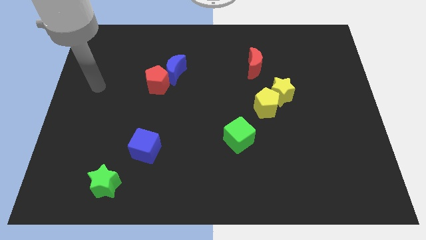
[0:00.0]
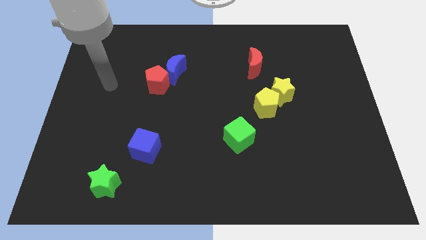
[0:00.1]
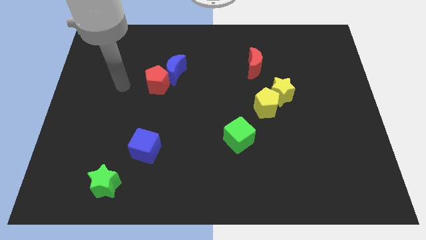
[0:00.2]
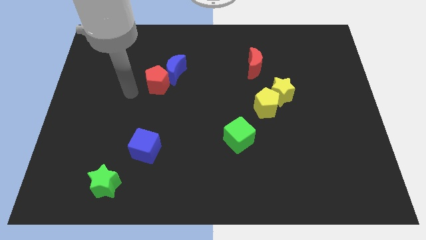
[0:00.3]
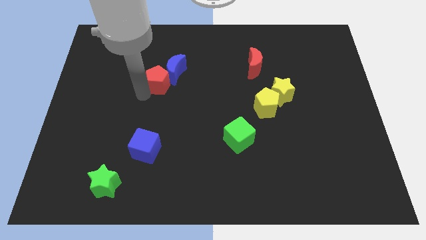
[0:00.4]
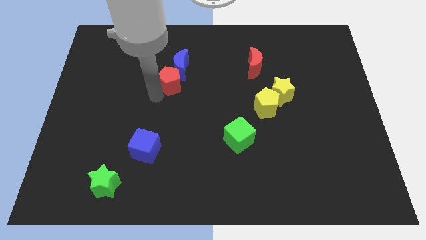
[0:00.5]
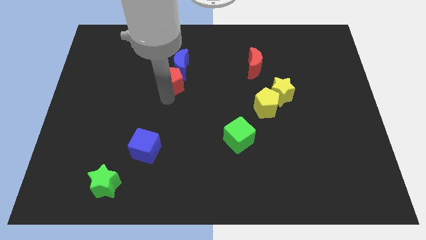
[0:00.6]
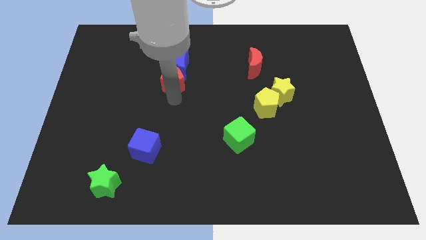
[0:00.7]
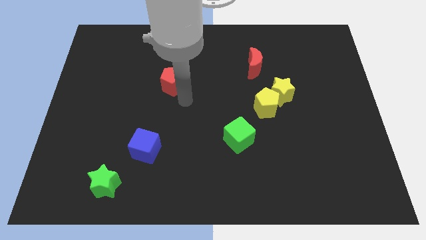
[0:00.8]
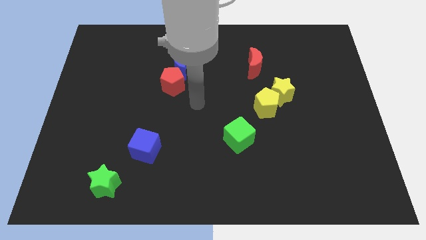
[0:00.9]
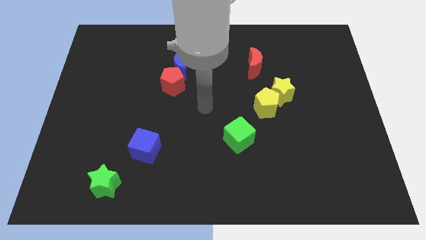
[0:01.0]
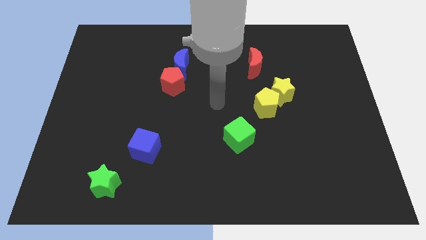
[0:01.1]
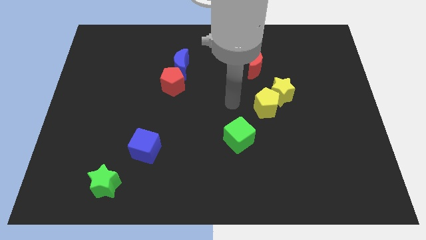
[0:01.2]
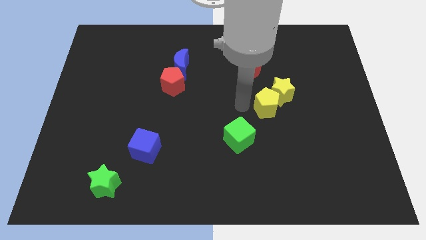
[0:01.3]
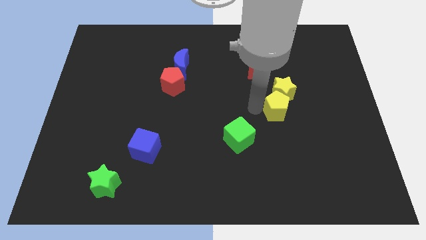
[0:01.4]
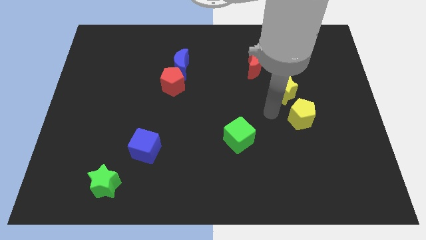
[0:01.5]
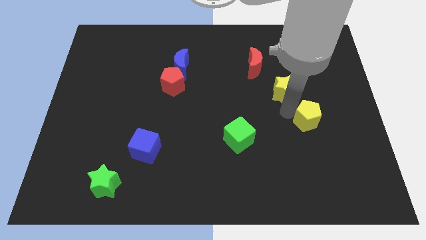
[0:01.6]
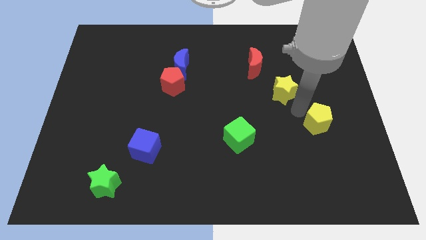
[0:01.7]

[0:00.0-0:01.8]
pull the yellow star apart from the yellow pentagon

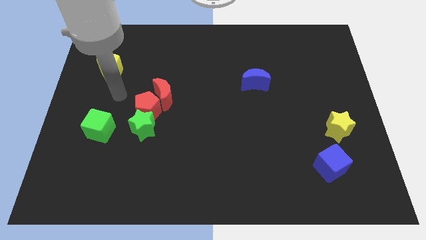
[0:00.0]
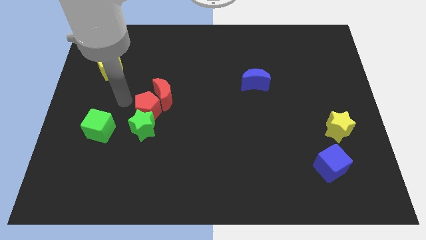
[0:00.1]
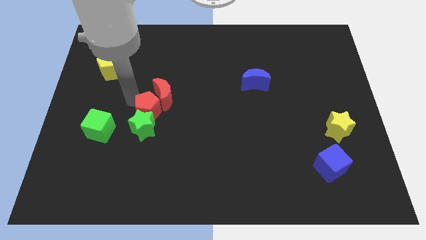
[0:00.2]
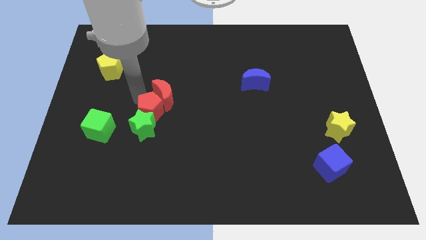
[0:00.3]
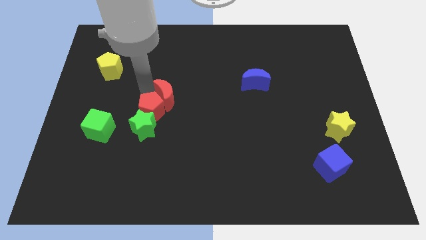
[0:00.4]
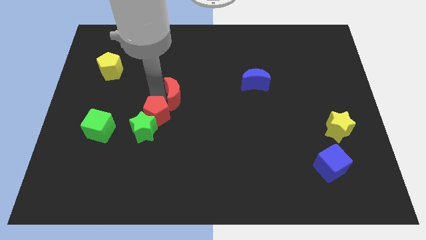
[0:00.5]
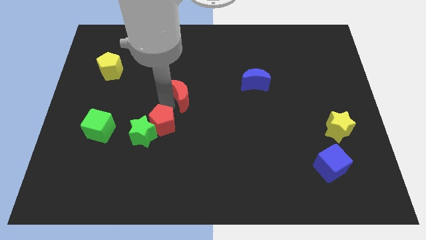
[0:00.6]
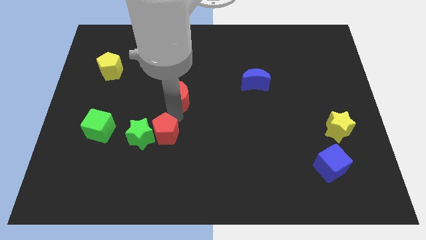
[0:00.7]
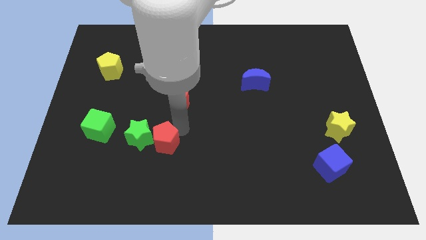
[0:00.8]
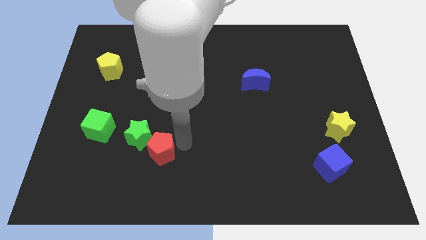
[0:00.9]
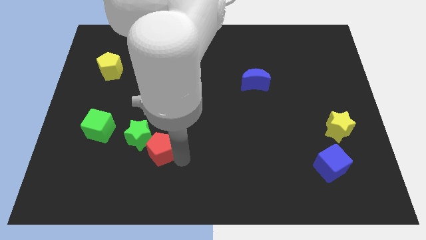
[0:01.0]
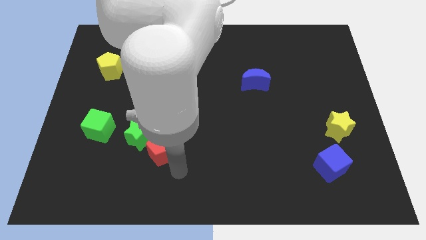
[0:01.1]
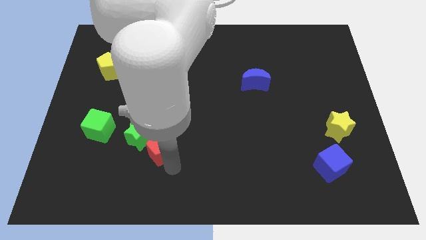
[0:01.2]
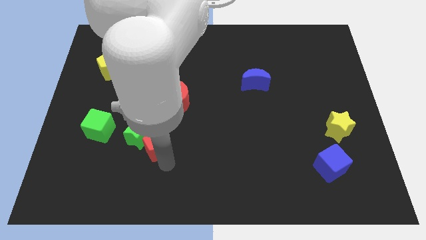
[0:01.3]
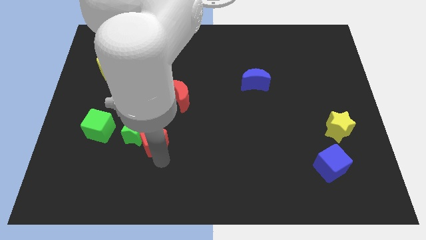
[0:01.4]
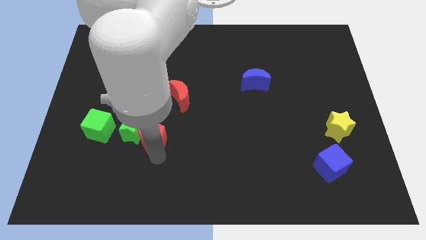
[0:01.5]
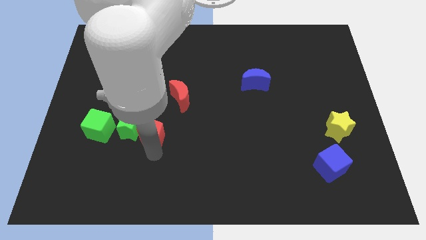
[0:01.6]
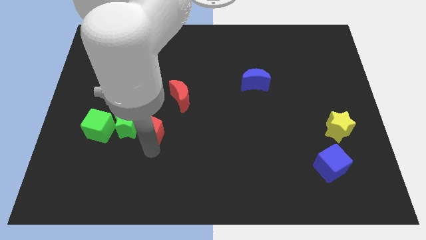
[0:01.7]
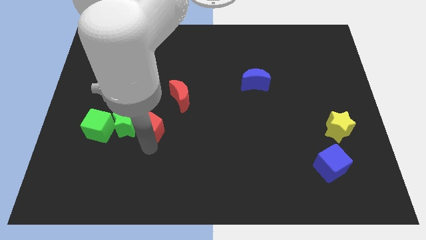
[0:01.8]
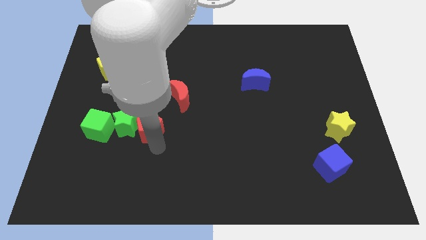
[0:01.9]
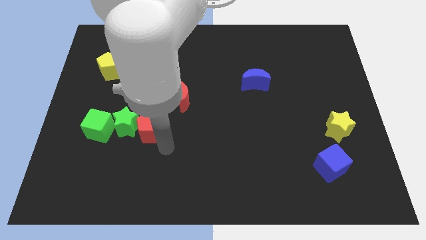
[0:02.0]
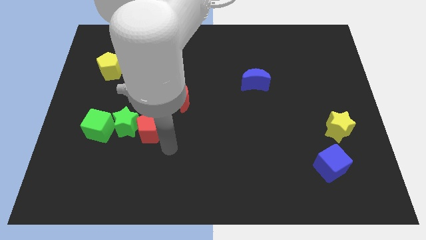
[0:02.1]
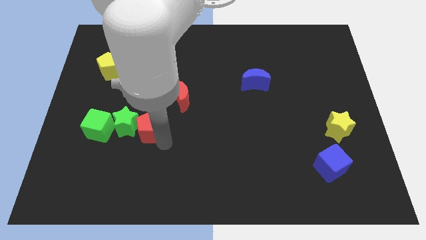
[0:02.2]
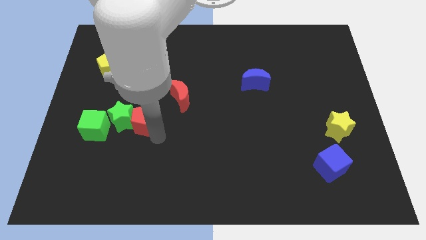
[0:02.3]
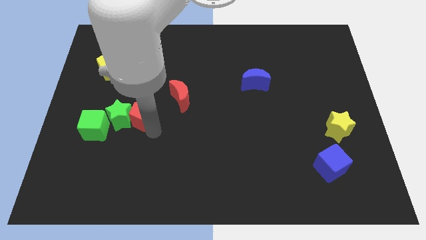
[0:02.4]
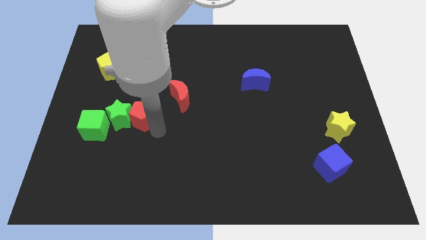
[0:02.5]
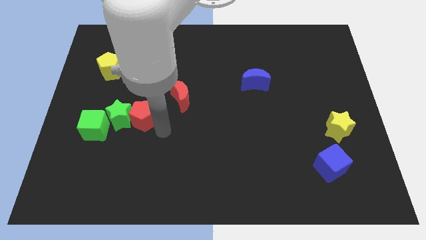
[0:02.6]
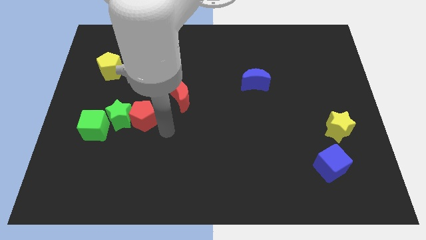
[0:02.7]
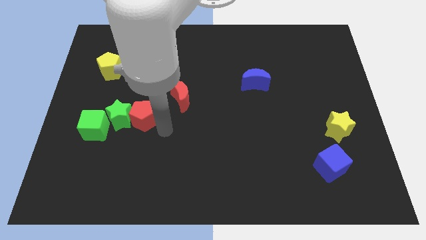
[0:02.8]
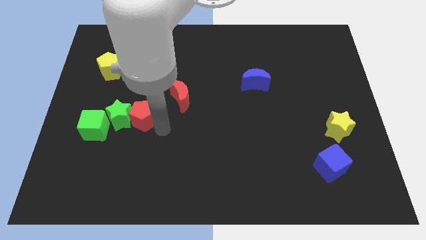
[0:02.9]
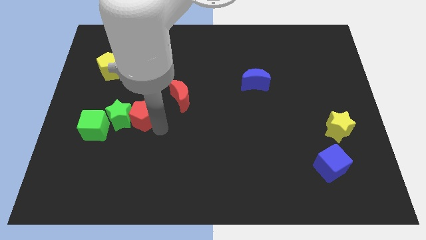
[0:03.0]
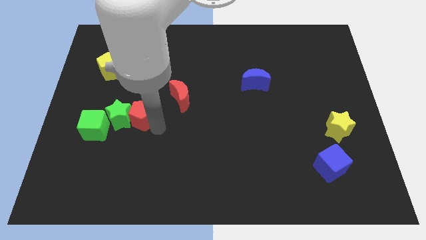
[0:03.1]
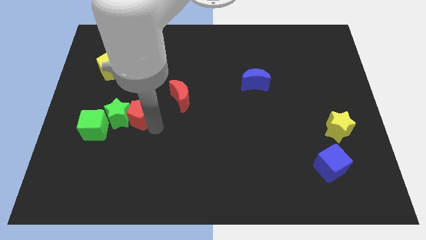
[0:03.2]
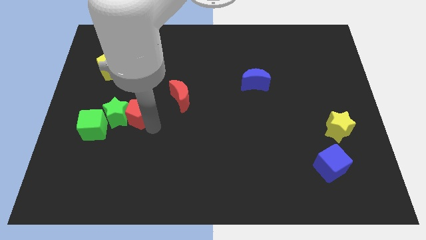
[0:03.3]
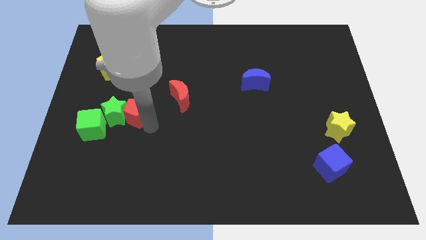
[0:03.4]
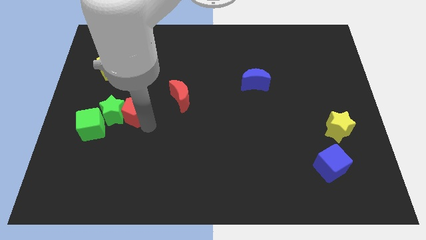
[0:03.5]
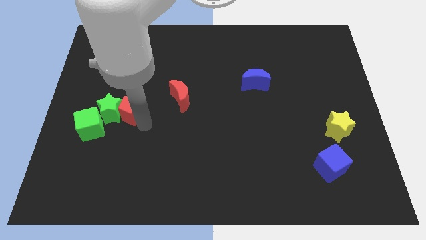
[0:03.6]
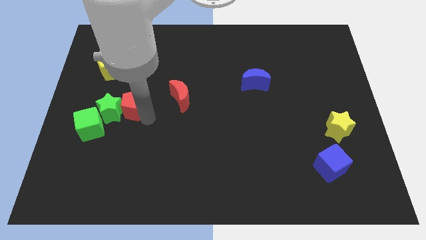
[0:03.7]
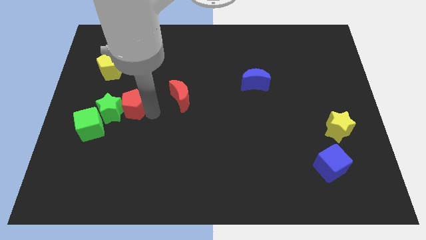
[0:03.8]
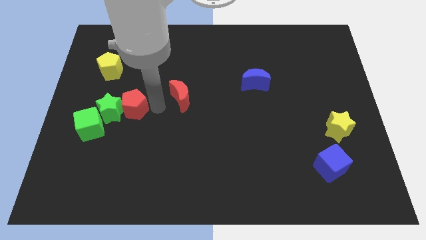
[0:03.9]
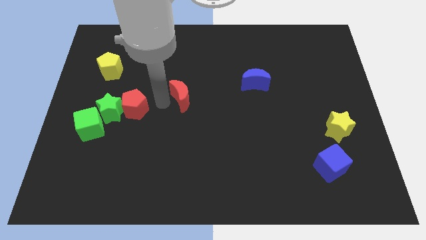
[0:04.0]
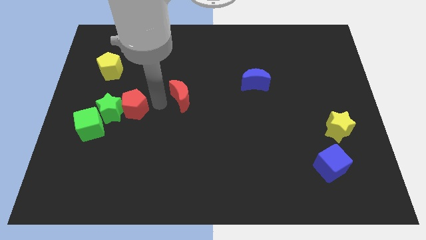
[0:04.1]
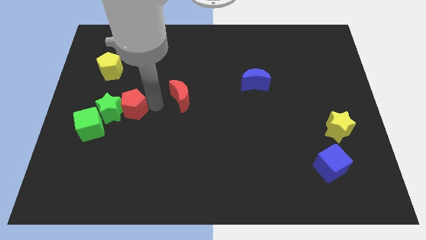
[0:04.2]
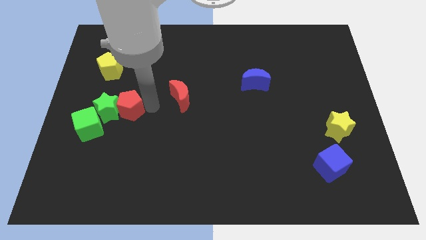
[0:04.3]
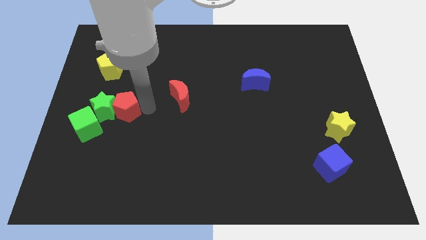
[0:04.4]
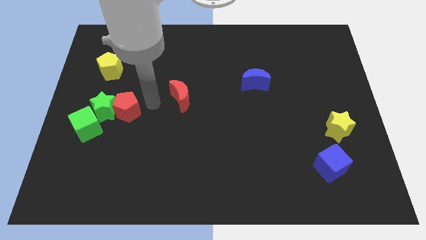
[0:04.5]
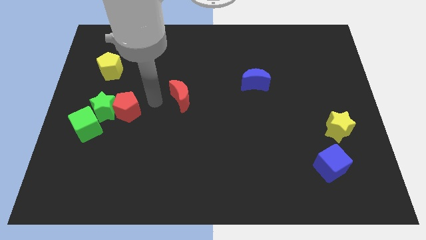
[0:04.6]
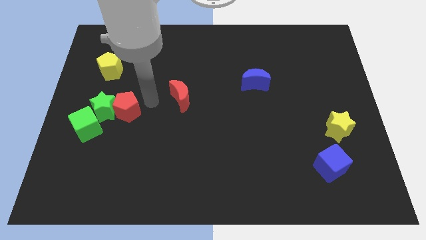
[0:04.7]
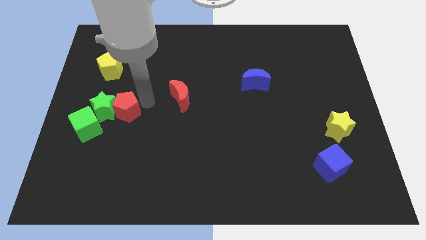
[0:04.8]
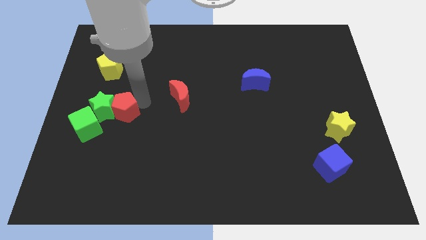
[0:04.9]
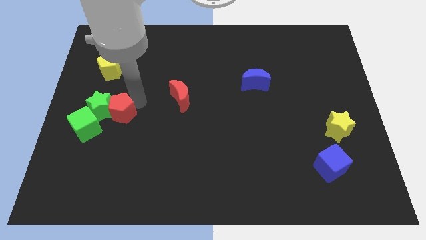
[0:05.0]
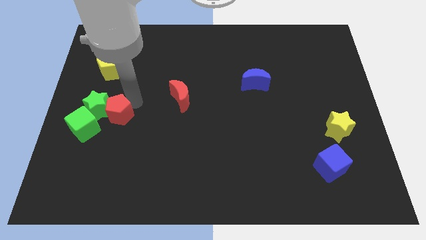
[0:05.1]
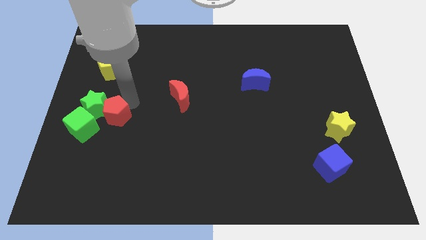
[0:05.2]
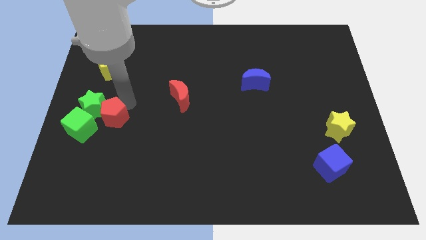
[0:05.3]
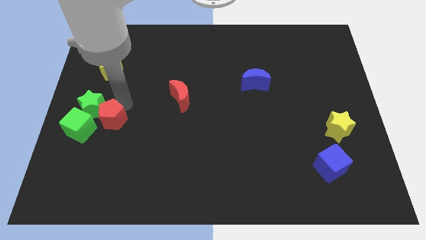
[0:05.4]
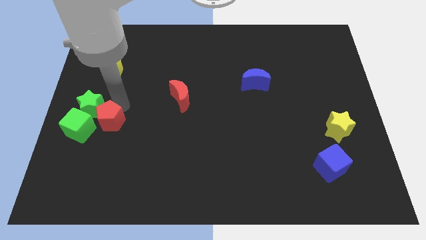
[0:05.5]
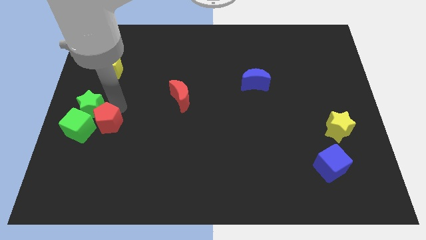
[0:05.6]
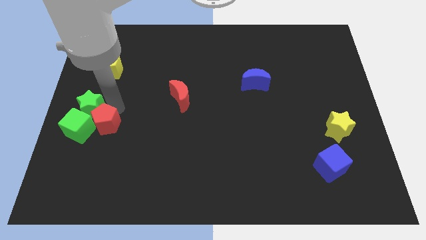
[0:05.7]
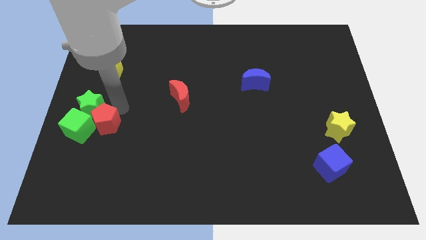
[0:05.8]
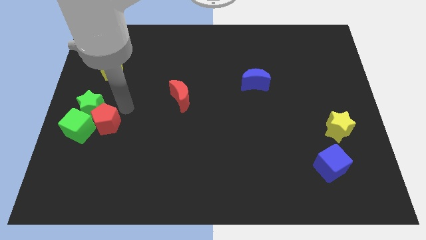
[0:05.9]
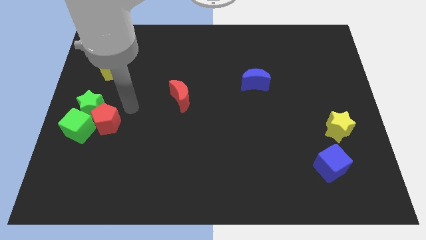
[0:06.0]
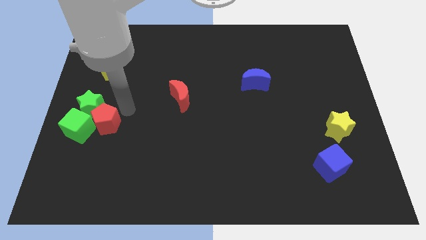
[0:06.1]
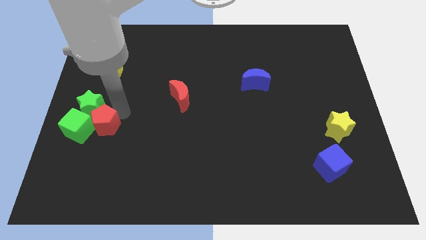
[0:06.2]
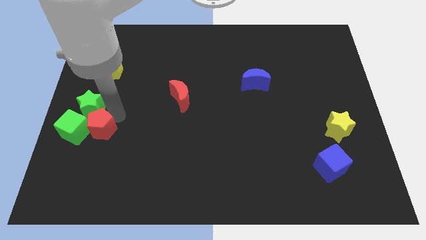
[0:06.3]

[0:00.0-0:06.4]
move the red pentagon away from the green star and red moon

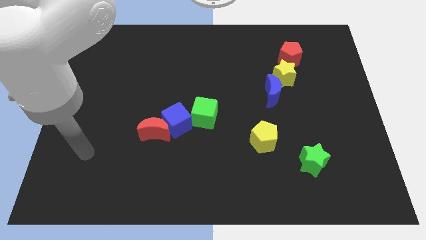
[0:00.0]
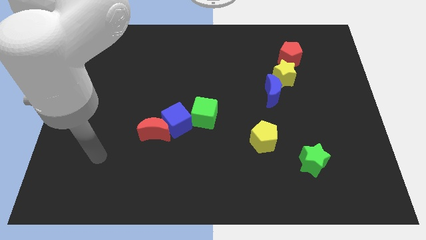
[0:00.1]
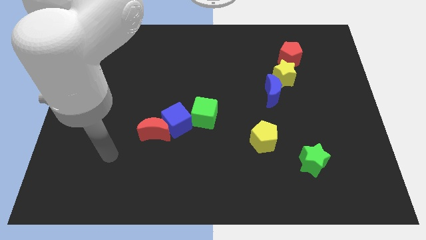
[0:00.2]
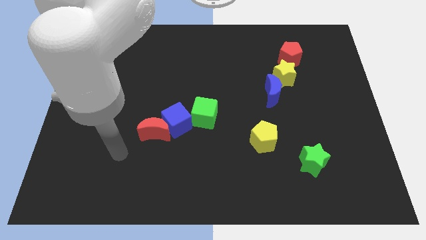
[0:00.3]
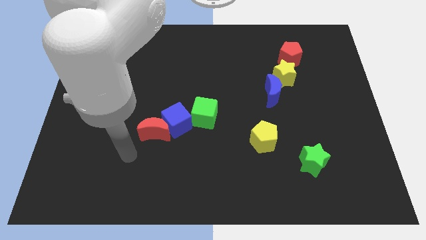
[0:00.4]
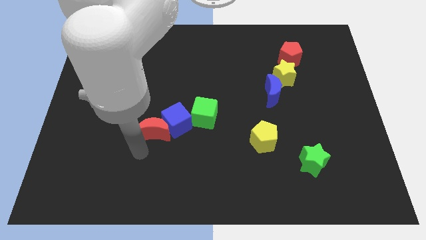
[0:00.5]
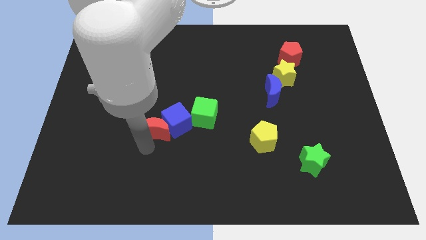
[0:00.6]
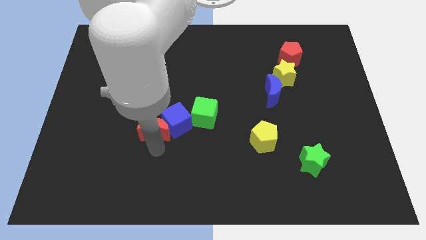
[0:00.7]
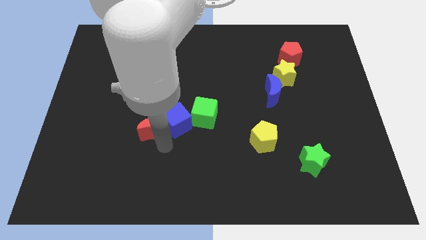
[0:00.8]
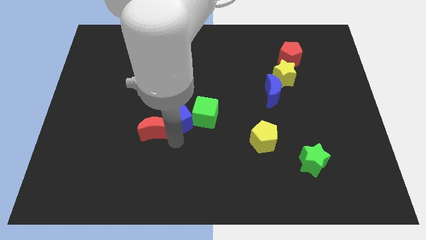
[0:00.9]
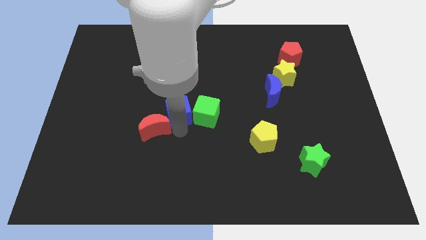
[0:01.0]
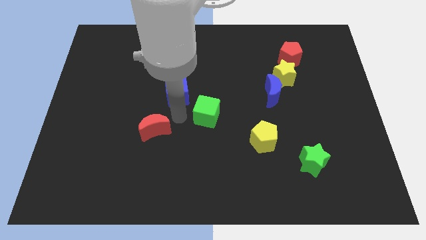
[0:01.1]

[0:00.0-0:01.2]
pull the red moon apart from the blue cube

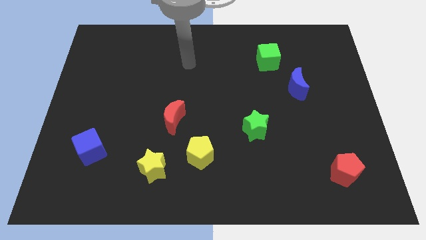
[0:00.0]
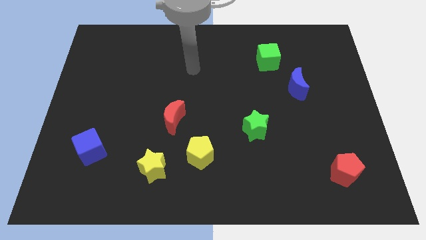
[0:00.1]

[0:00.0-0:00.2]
separate the yellow star from the yellow pentagon
